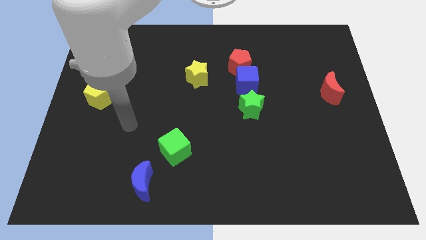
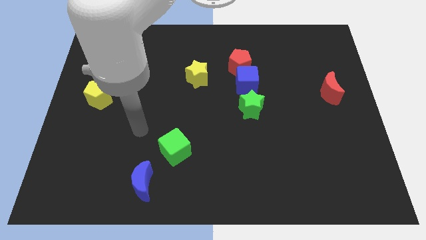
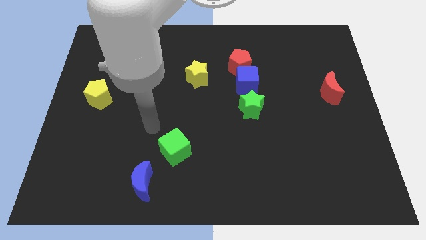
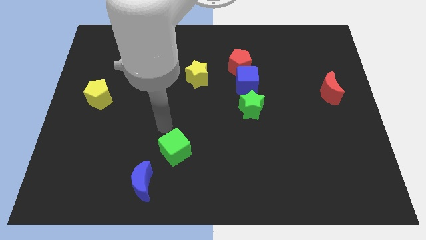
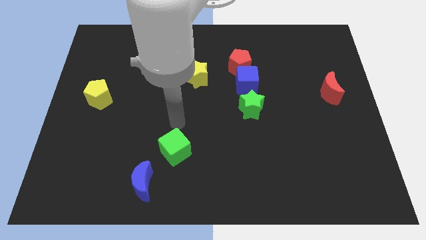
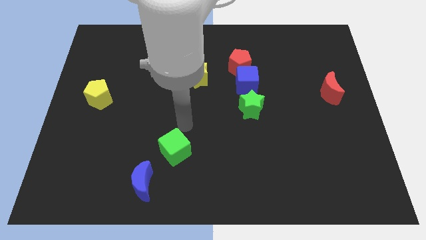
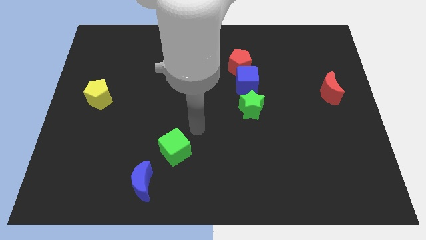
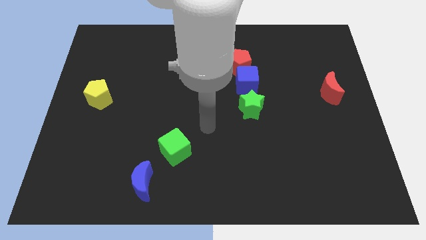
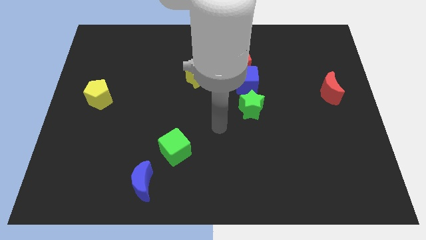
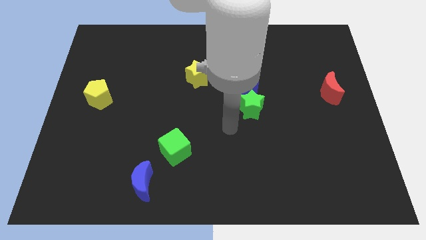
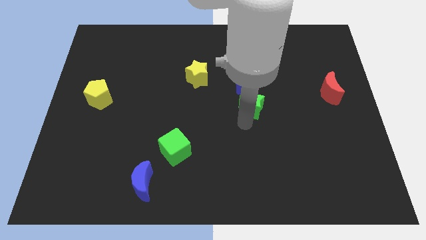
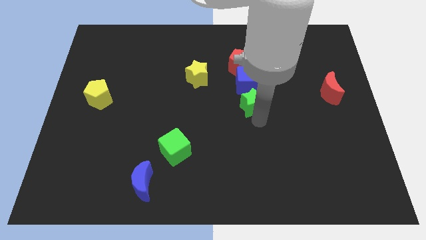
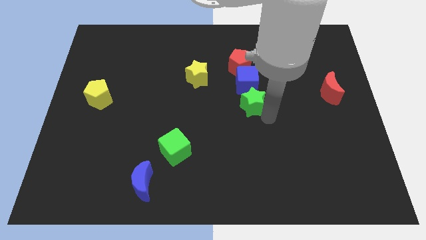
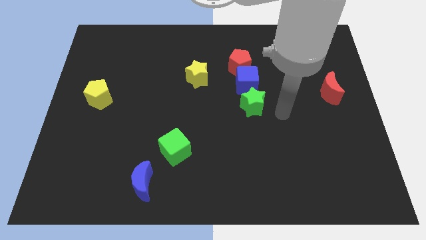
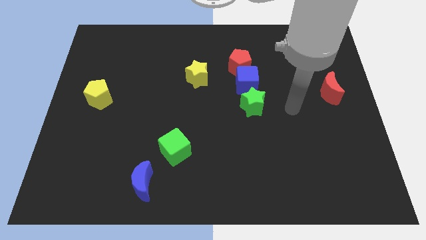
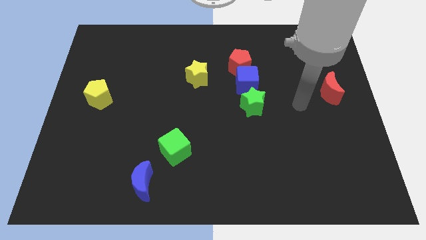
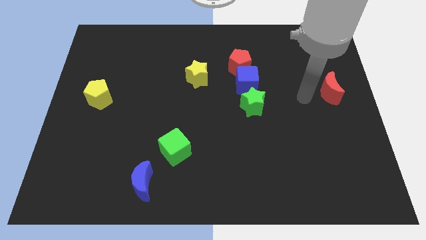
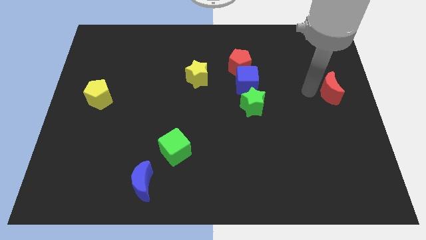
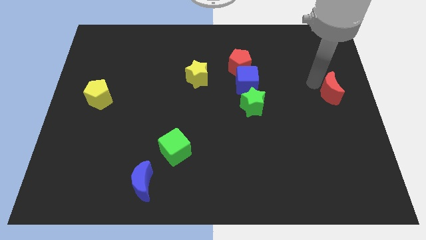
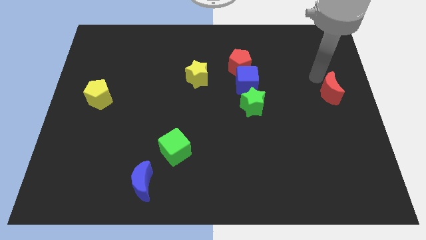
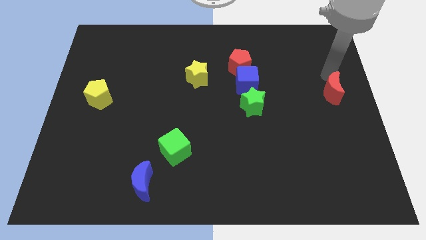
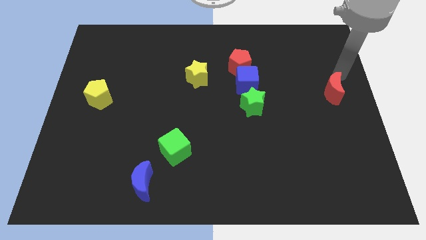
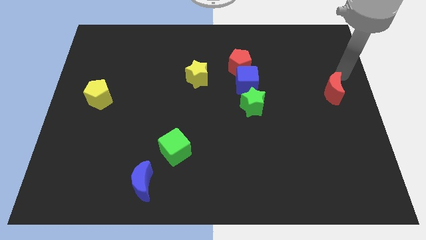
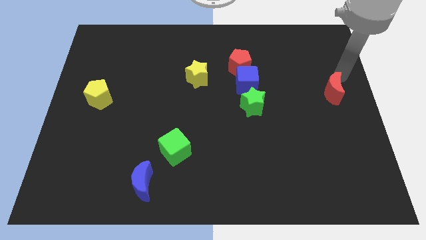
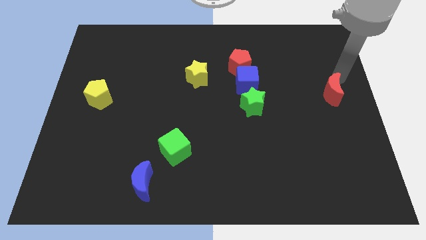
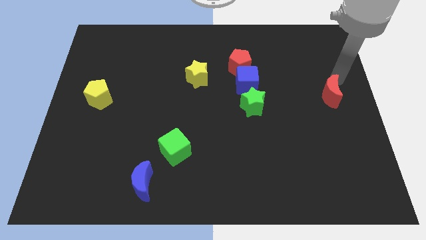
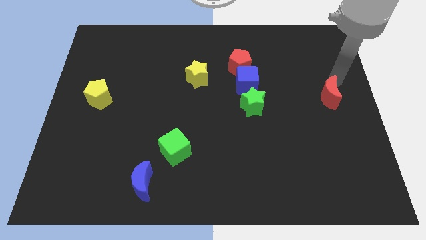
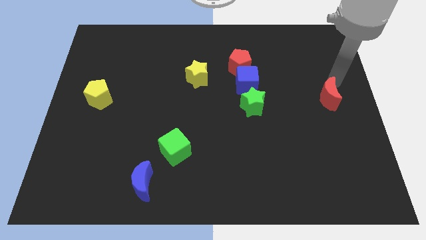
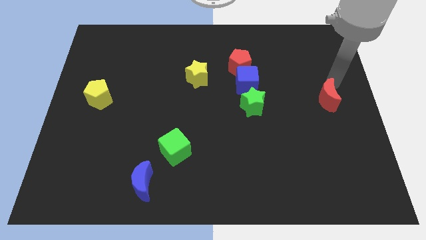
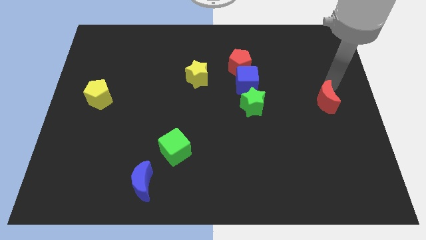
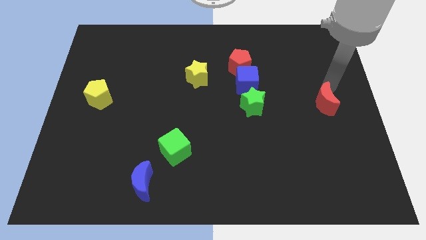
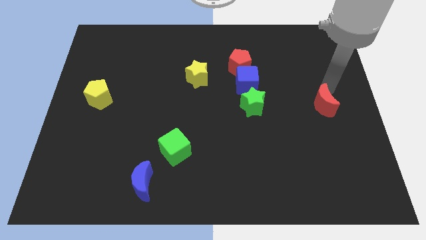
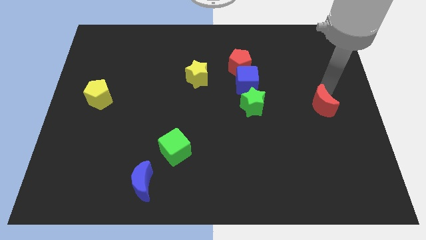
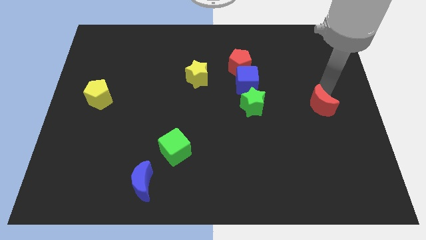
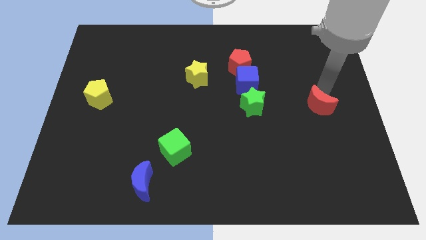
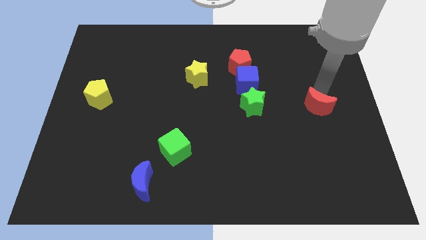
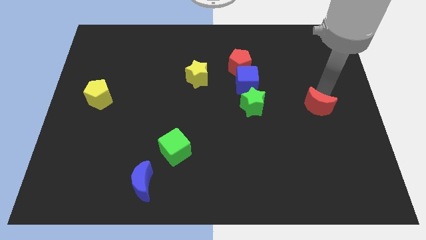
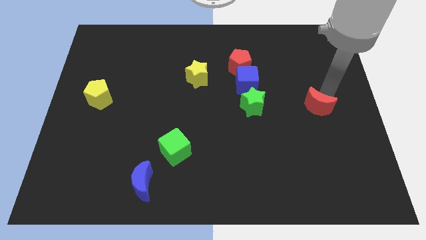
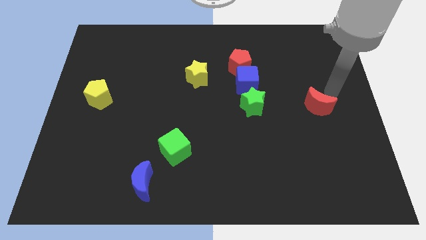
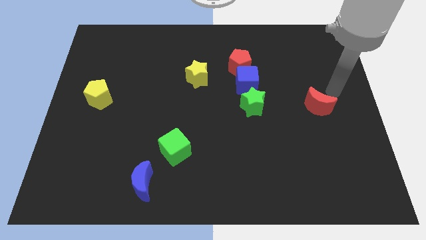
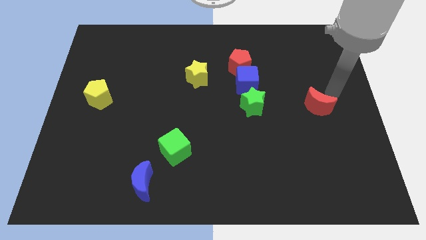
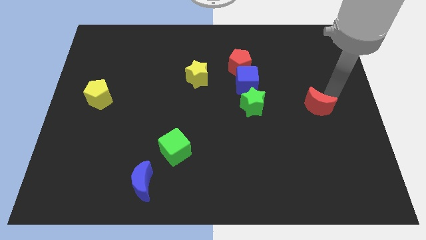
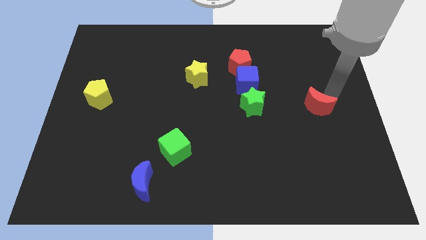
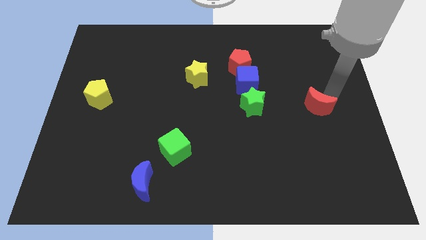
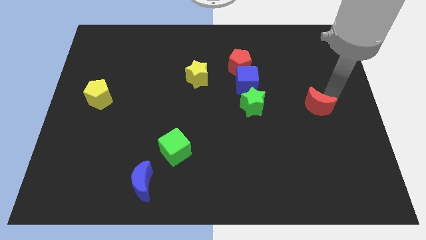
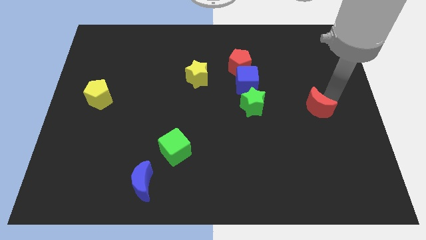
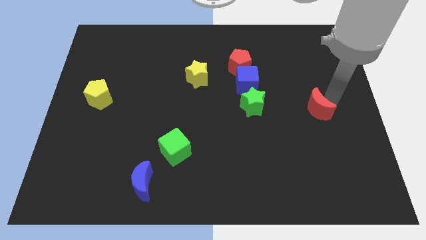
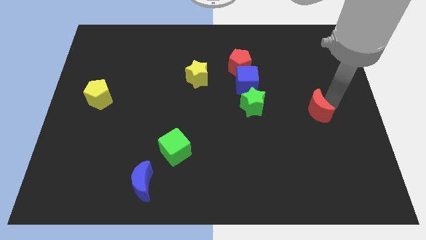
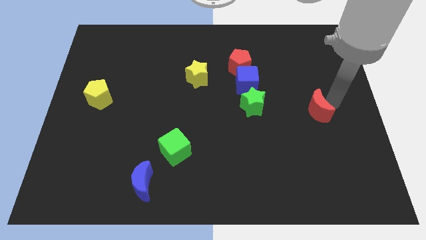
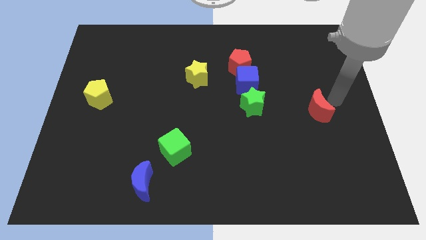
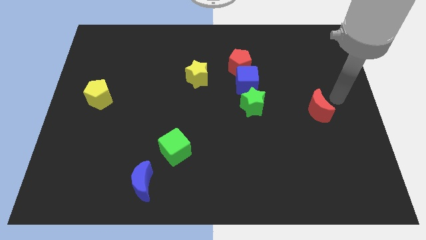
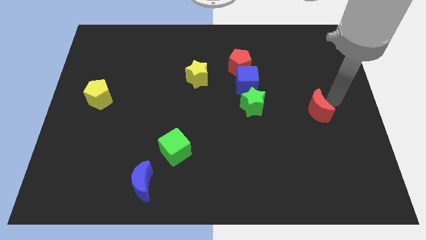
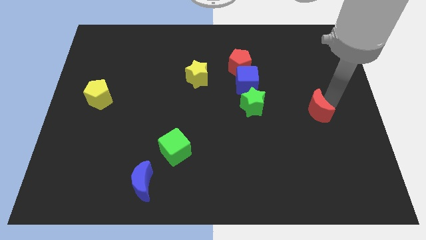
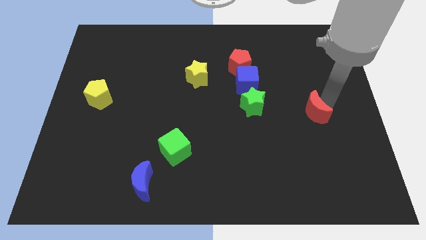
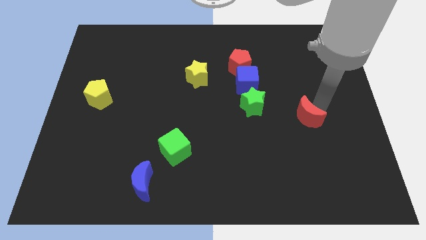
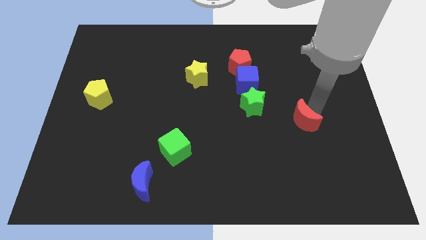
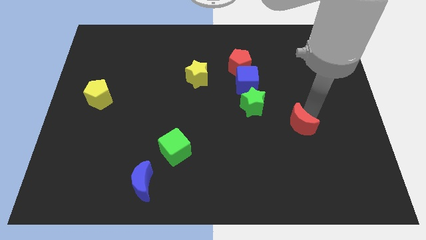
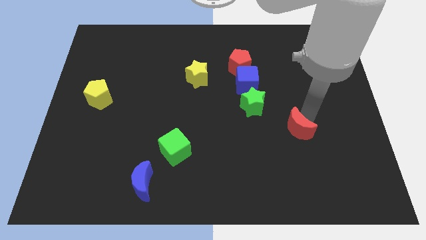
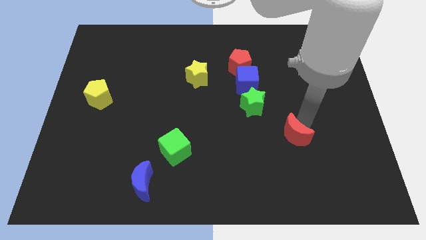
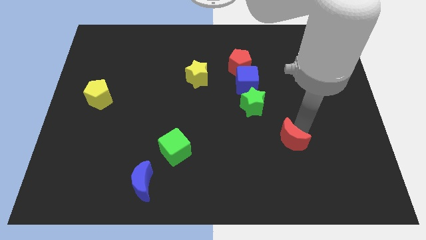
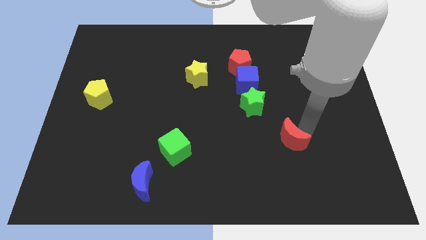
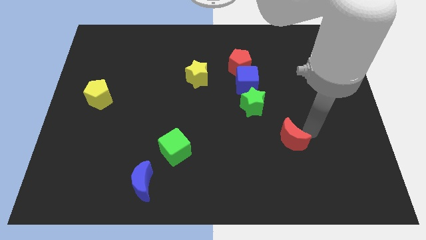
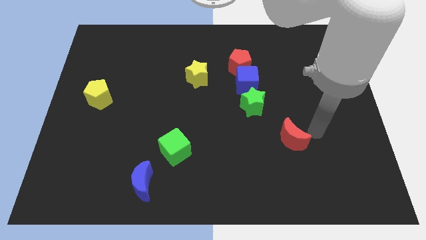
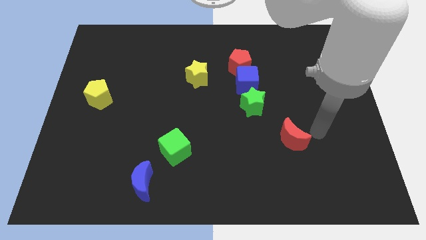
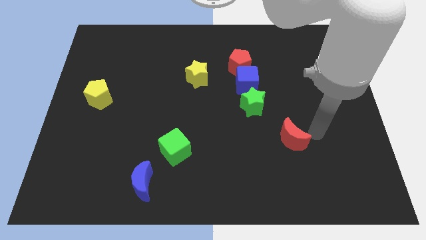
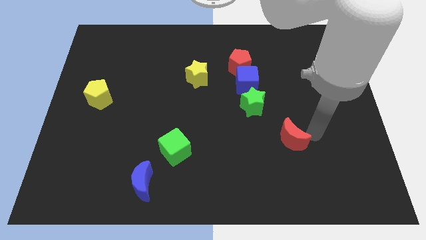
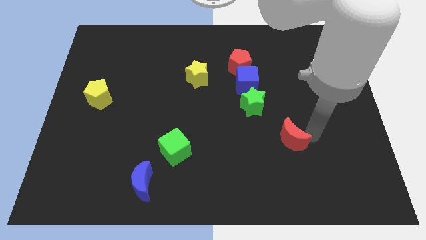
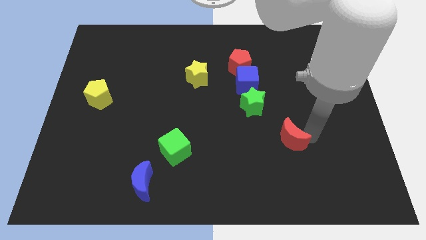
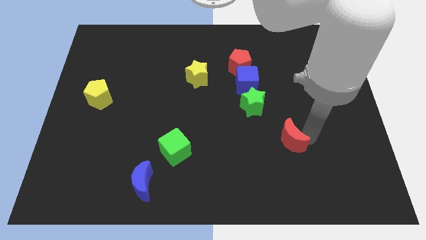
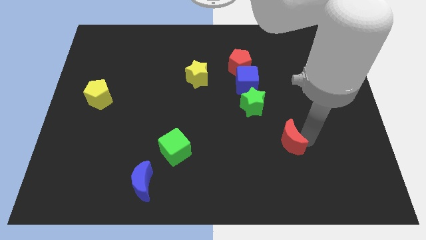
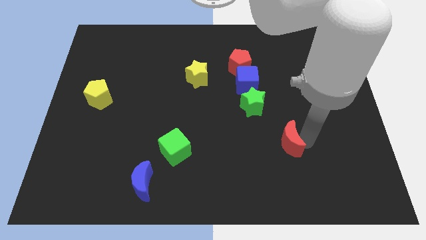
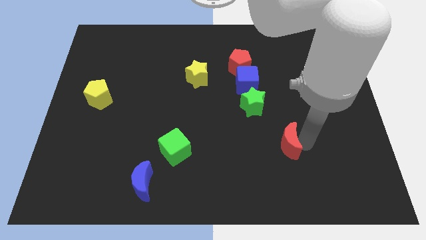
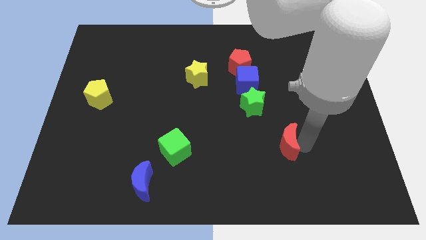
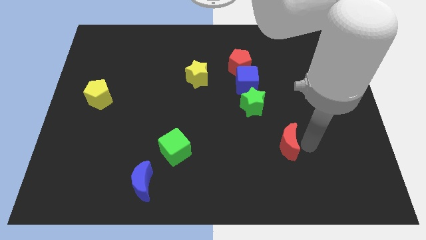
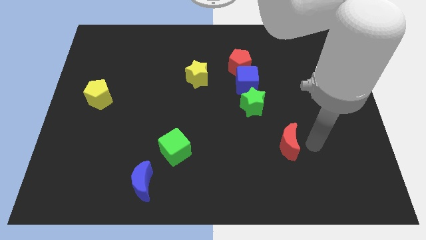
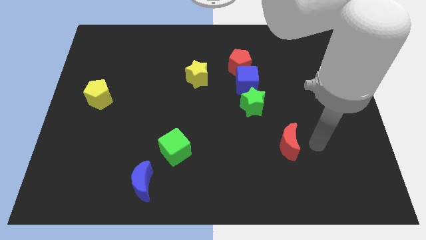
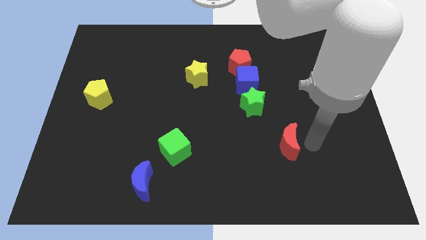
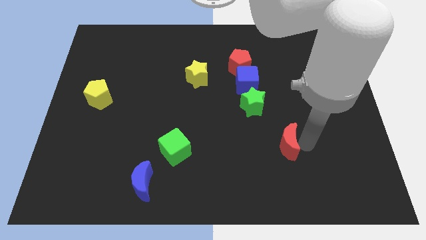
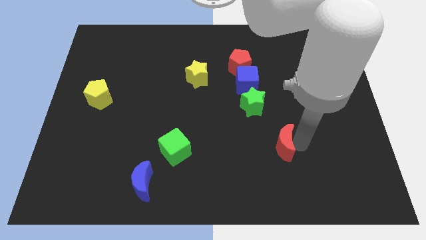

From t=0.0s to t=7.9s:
push the red moon down and then left

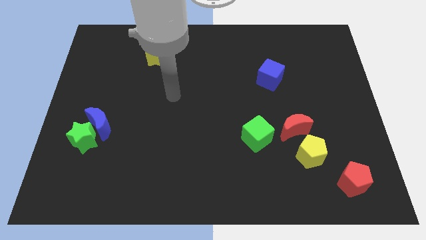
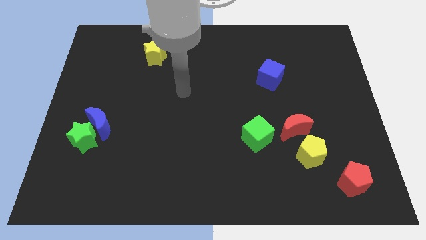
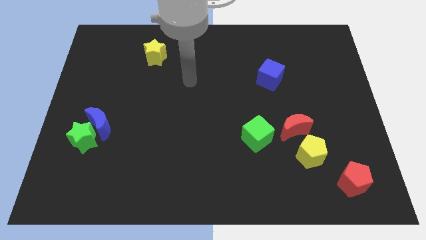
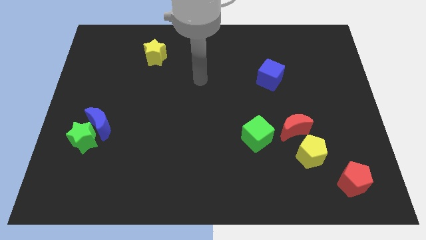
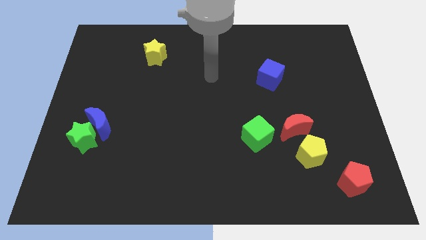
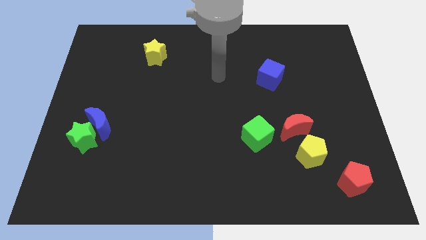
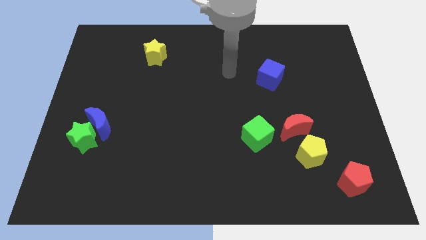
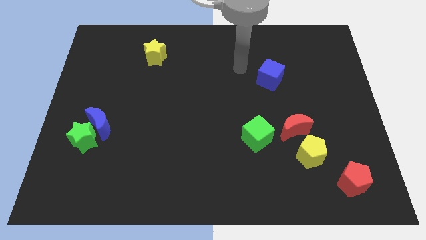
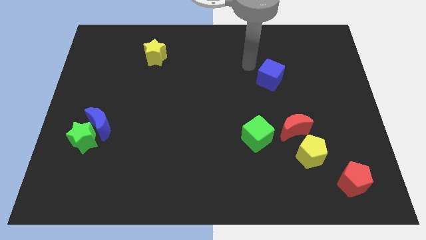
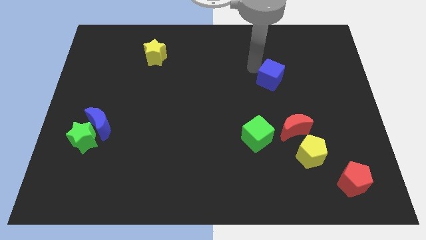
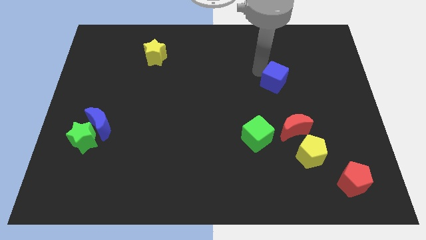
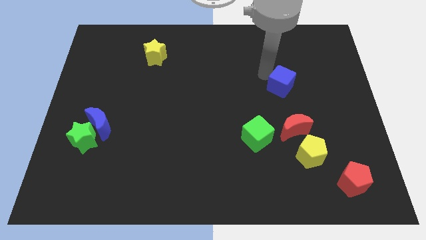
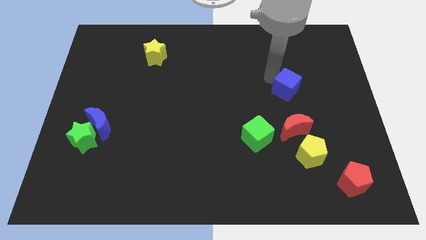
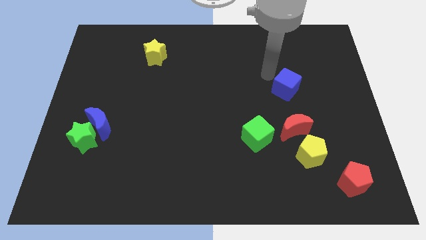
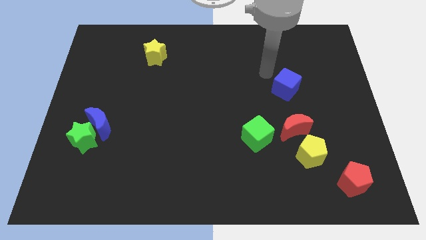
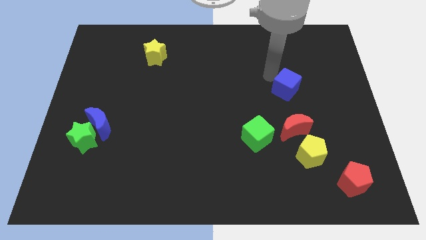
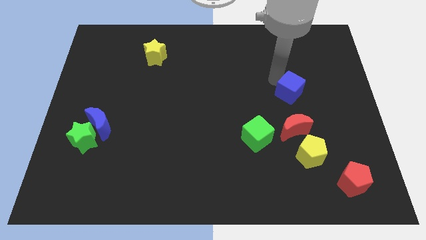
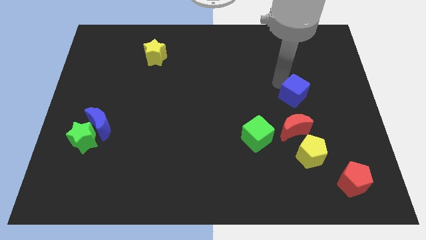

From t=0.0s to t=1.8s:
move the blue cube down and to the right diagonally a little bit
